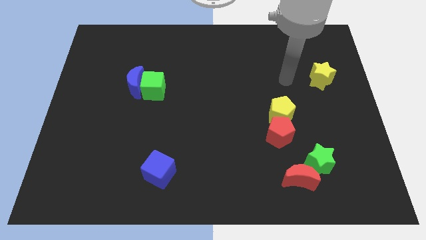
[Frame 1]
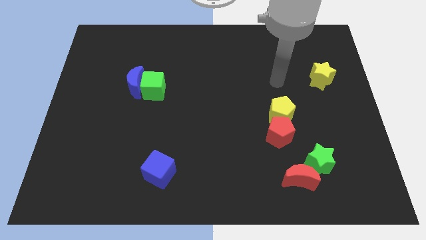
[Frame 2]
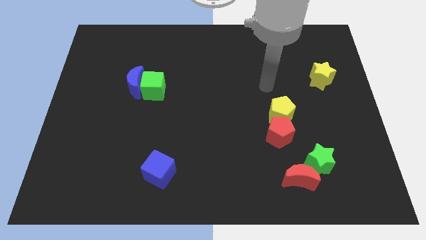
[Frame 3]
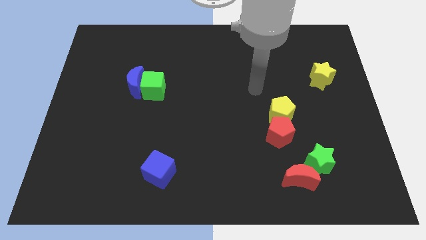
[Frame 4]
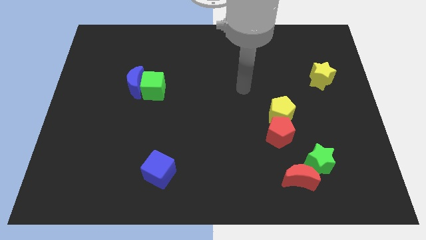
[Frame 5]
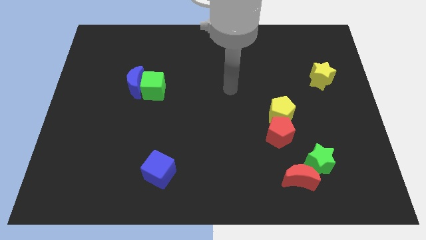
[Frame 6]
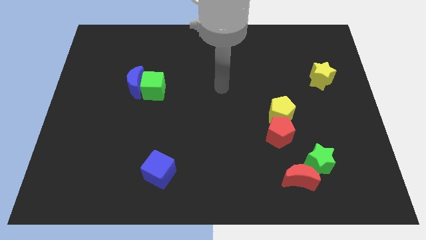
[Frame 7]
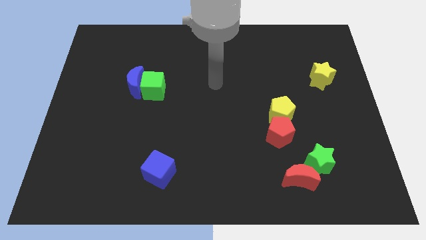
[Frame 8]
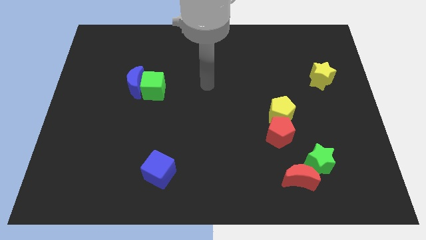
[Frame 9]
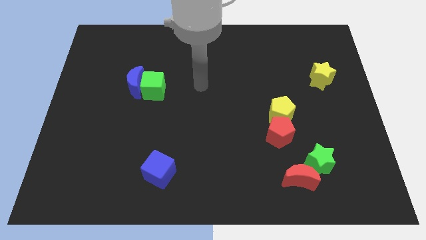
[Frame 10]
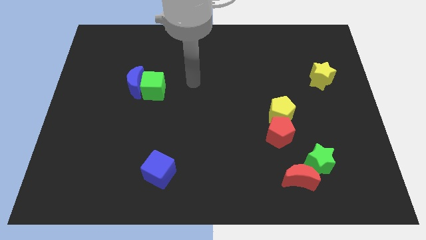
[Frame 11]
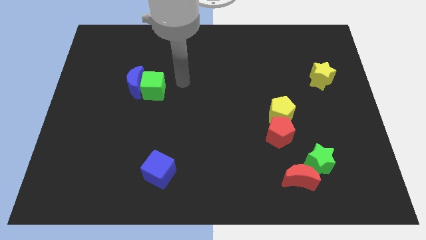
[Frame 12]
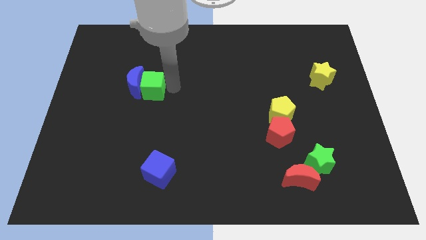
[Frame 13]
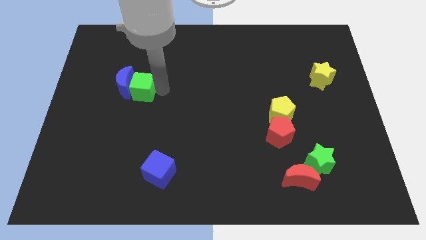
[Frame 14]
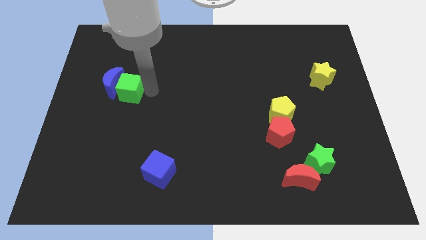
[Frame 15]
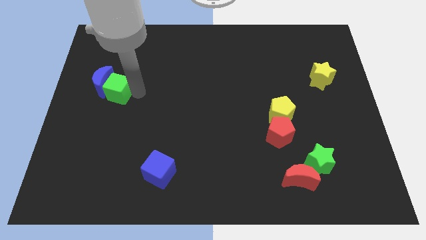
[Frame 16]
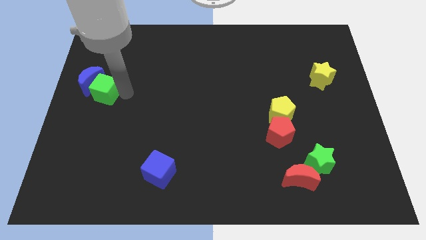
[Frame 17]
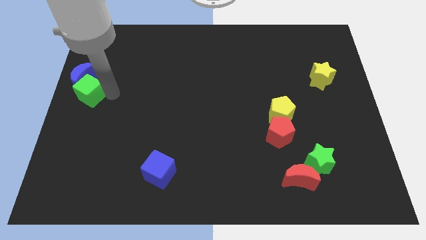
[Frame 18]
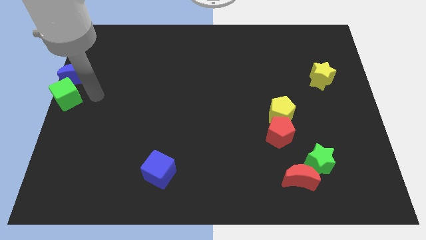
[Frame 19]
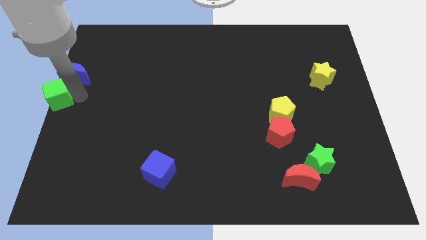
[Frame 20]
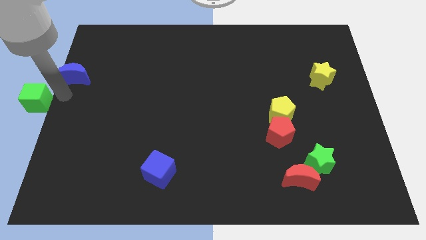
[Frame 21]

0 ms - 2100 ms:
separate the blue moon from the green cube

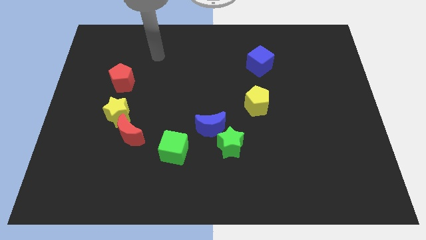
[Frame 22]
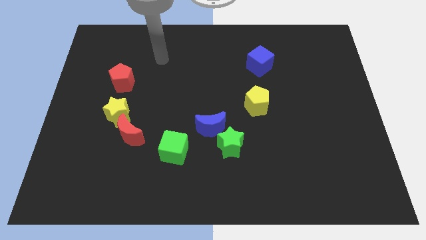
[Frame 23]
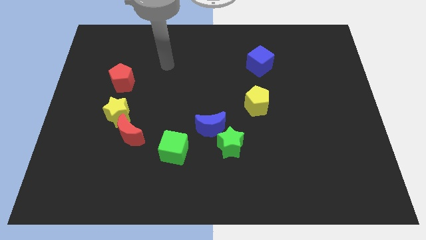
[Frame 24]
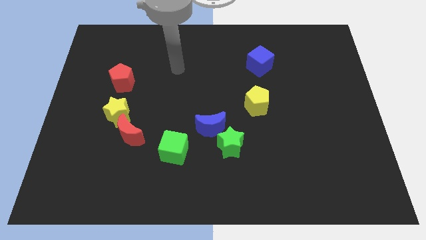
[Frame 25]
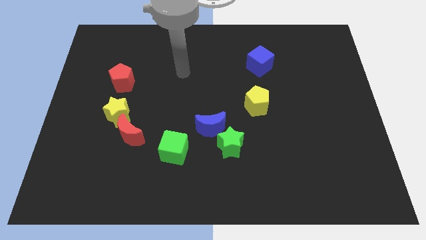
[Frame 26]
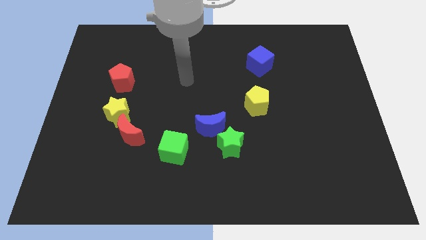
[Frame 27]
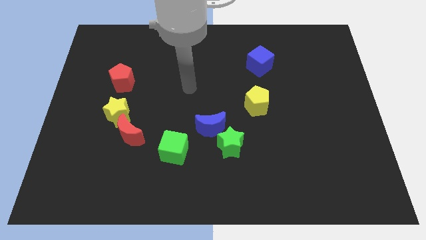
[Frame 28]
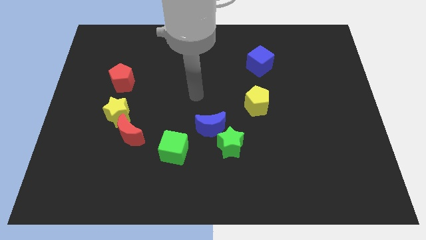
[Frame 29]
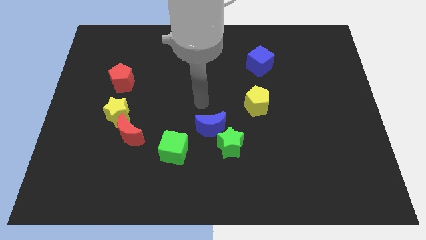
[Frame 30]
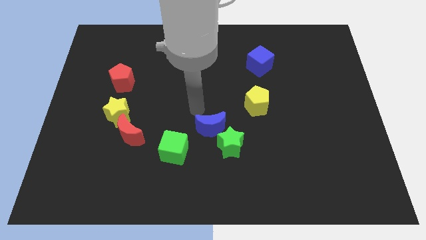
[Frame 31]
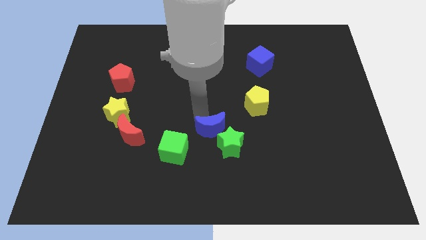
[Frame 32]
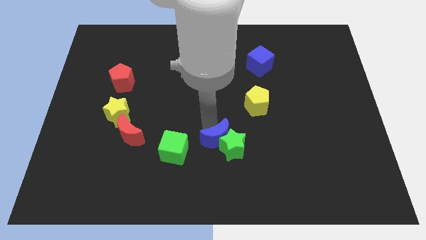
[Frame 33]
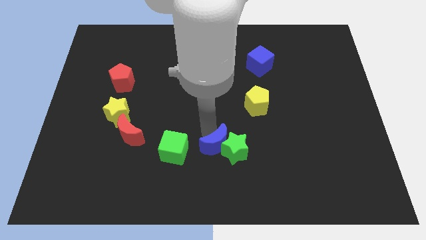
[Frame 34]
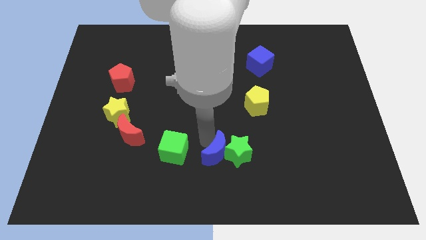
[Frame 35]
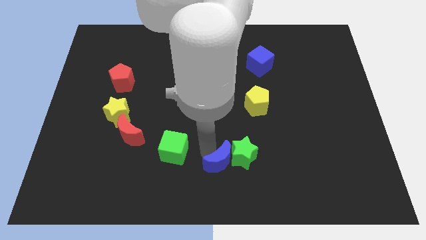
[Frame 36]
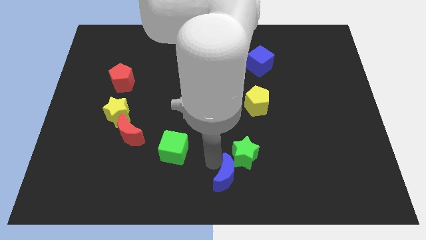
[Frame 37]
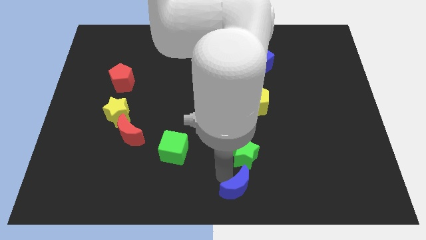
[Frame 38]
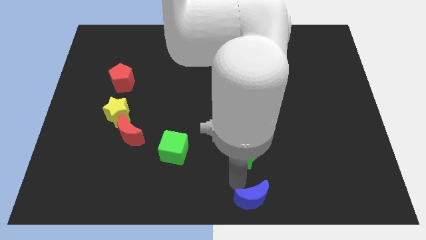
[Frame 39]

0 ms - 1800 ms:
move the green star away from the blue moon

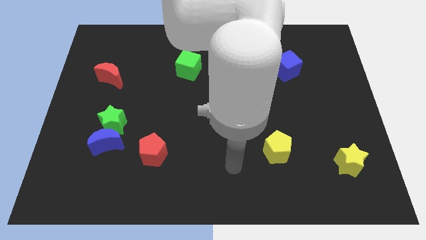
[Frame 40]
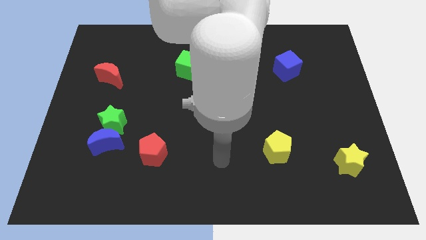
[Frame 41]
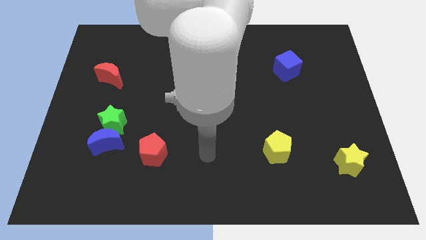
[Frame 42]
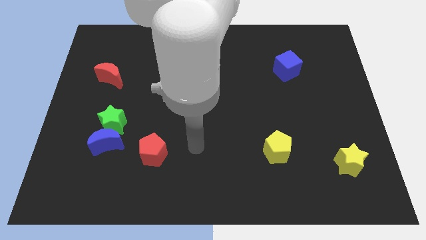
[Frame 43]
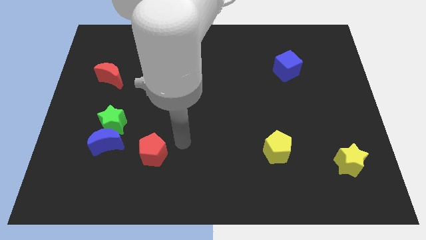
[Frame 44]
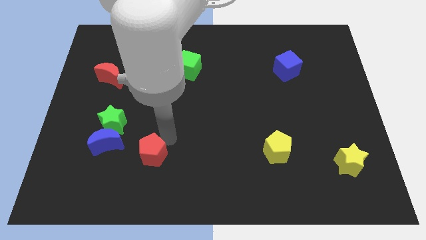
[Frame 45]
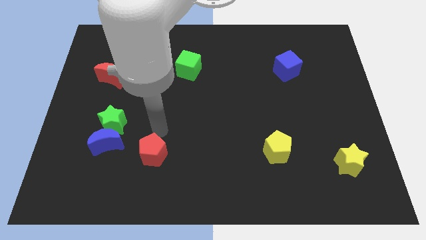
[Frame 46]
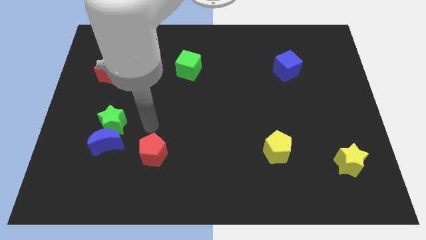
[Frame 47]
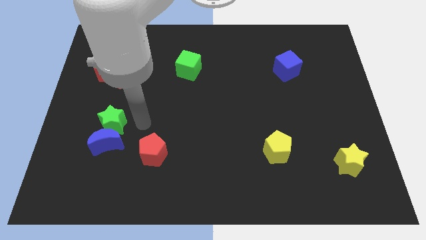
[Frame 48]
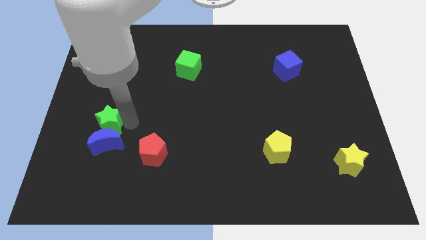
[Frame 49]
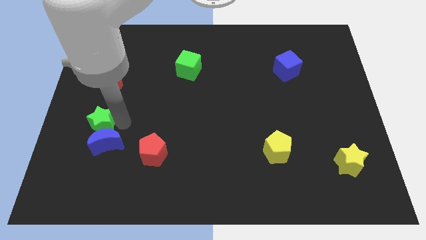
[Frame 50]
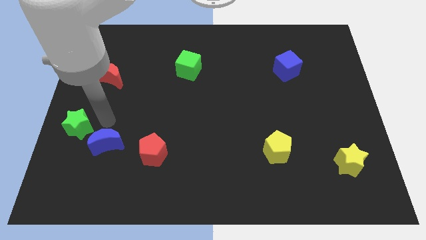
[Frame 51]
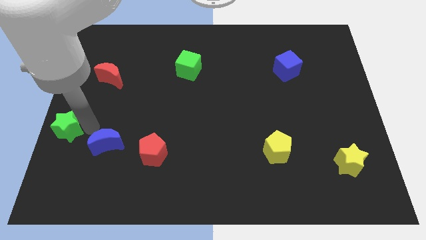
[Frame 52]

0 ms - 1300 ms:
move the blue moon away from the green star

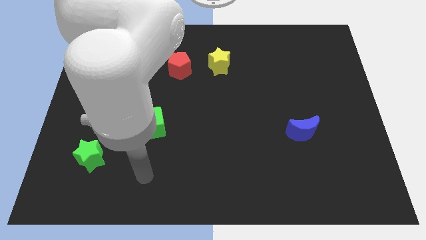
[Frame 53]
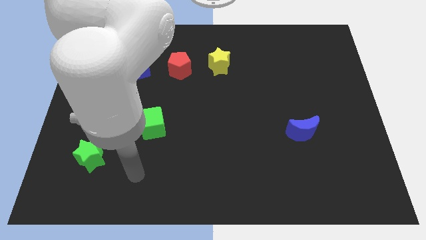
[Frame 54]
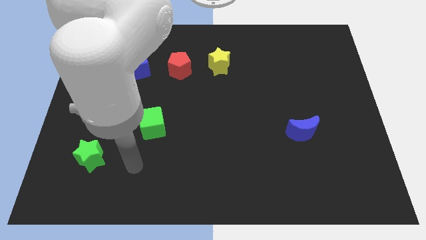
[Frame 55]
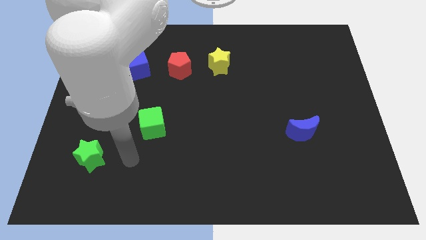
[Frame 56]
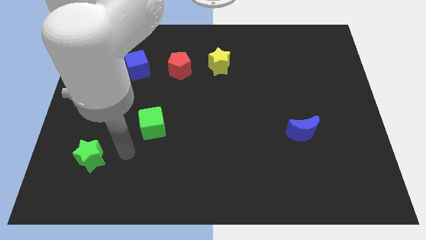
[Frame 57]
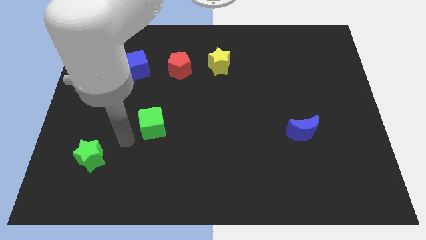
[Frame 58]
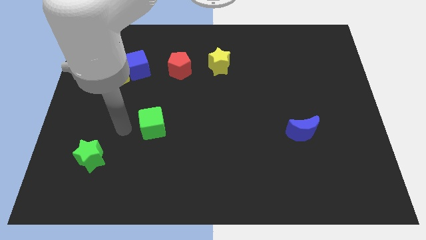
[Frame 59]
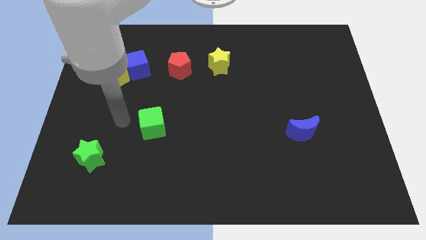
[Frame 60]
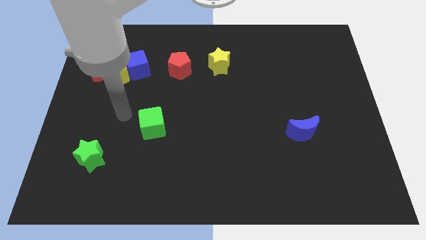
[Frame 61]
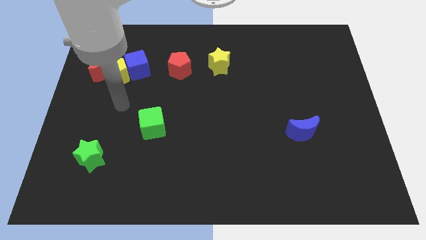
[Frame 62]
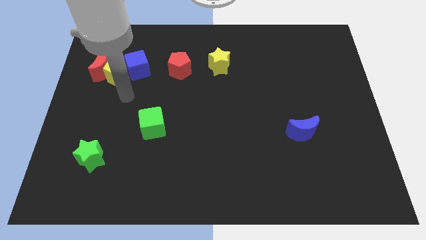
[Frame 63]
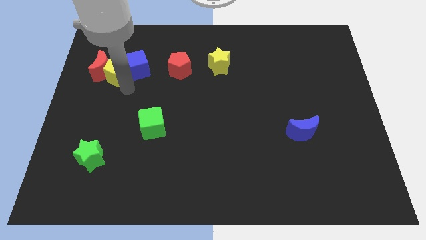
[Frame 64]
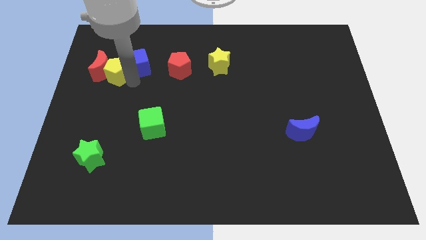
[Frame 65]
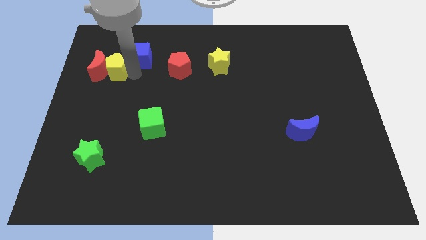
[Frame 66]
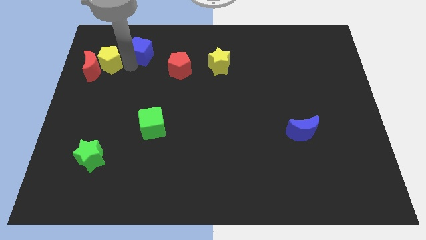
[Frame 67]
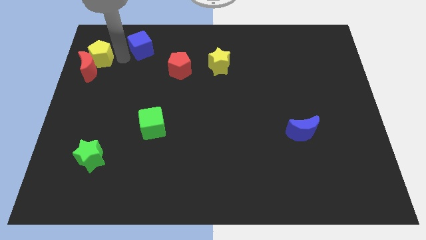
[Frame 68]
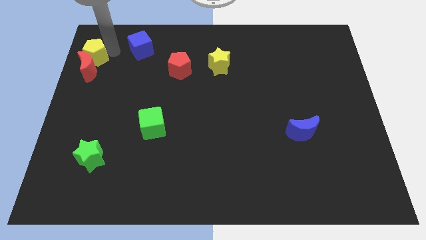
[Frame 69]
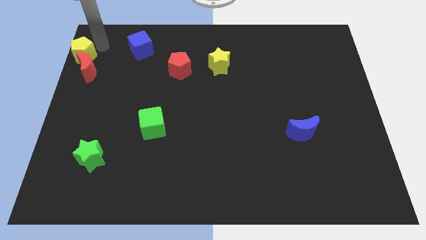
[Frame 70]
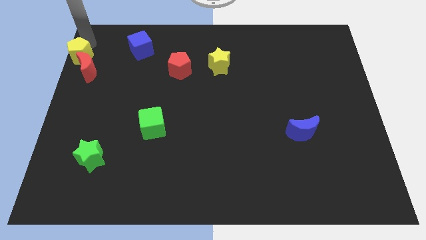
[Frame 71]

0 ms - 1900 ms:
move the yellow pentagon away from the red moon and blue cube

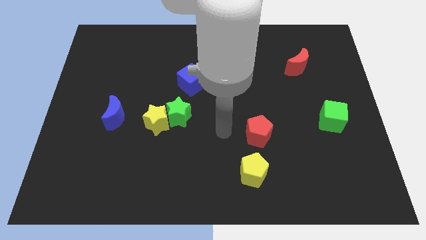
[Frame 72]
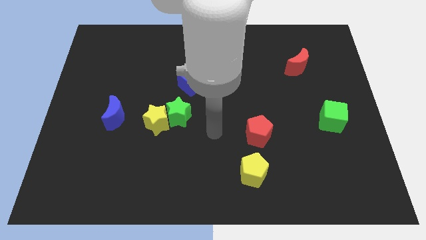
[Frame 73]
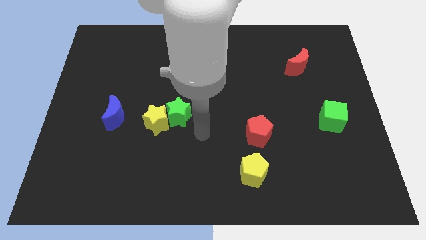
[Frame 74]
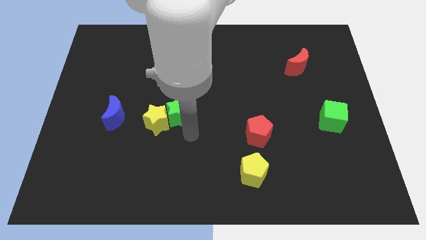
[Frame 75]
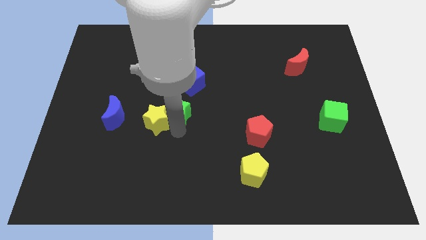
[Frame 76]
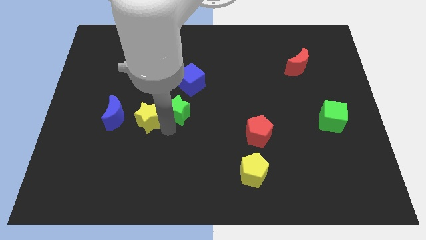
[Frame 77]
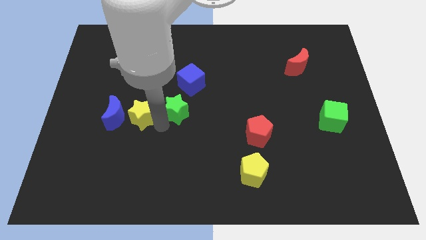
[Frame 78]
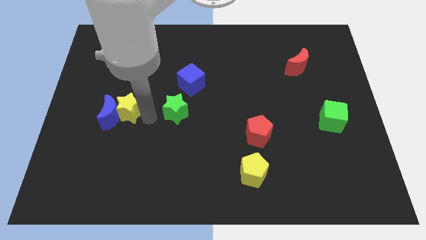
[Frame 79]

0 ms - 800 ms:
move the green star away from the yellow star

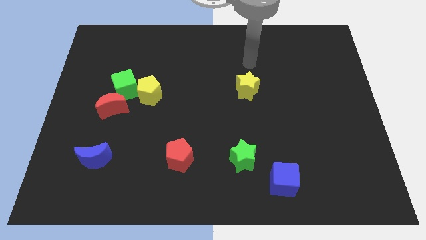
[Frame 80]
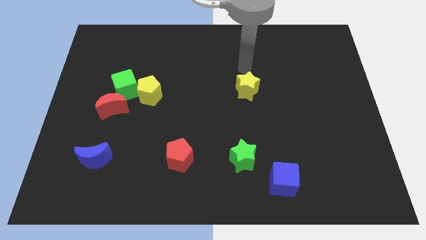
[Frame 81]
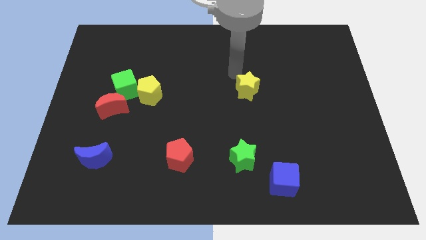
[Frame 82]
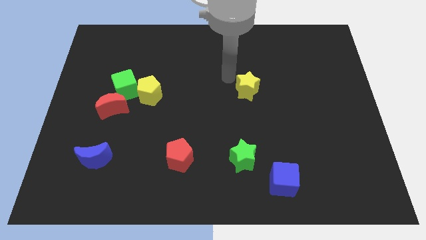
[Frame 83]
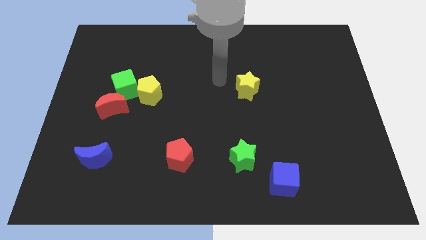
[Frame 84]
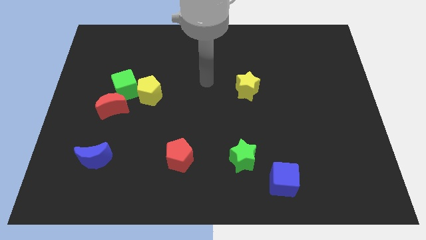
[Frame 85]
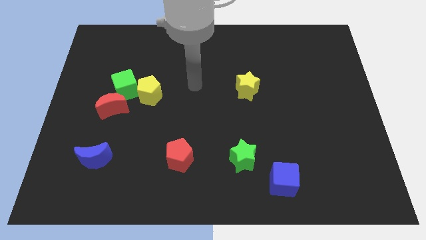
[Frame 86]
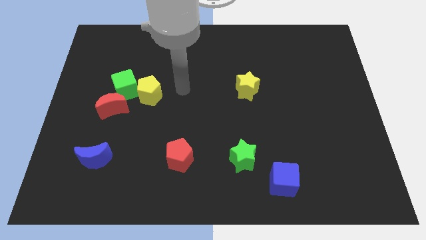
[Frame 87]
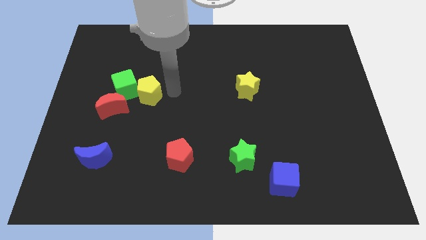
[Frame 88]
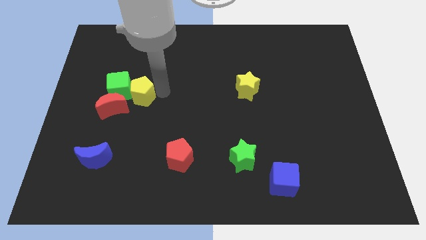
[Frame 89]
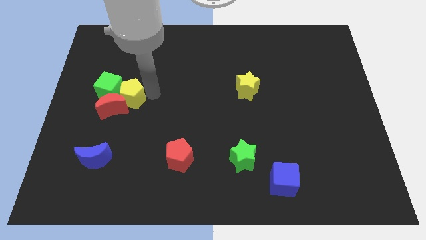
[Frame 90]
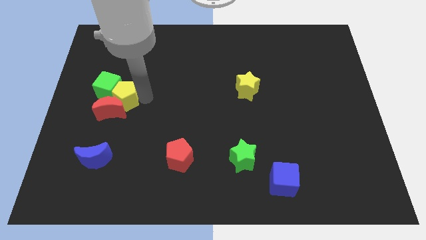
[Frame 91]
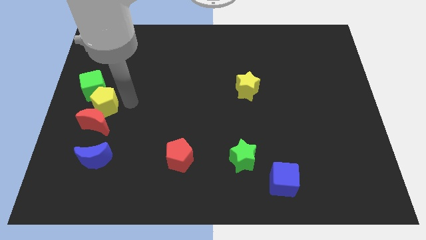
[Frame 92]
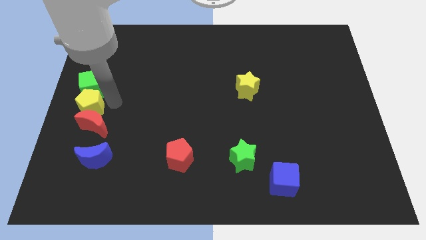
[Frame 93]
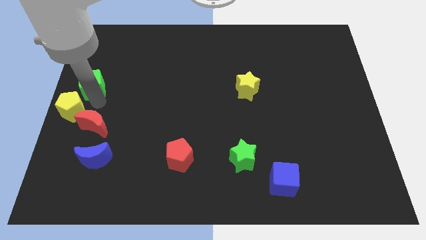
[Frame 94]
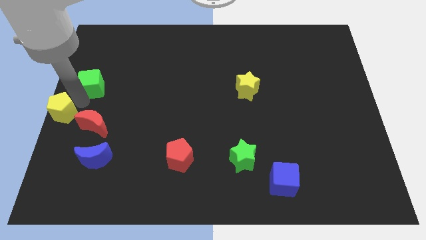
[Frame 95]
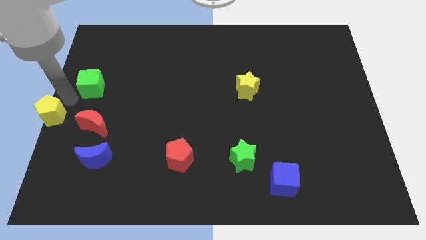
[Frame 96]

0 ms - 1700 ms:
separate the green cube from the yellow pentagon and red moon
